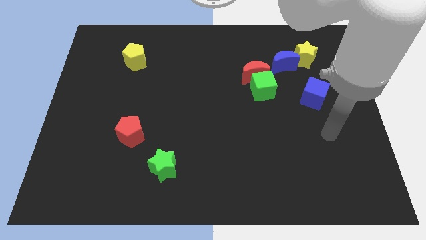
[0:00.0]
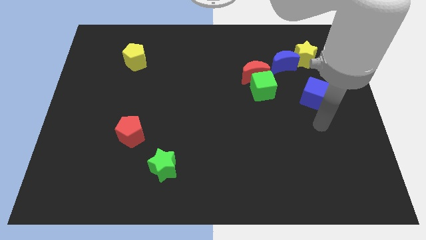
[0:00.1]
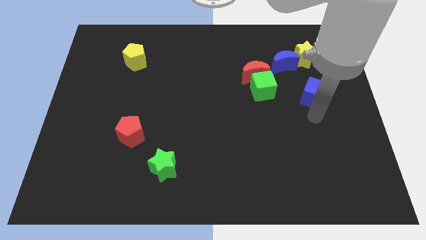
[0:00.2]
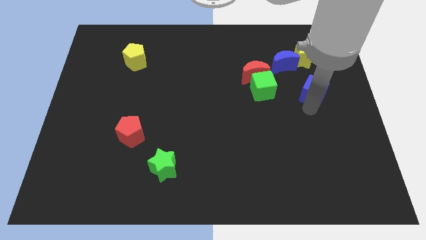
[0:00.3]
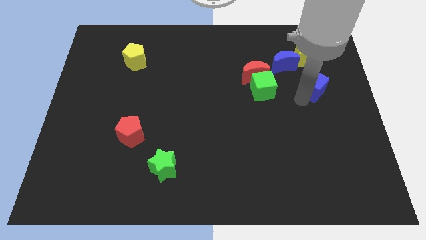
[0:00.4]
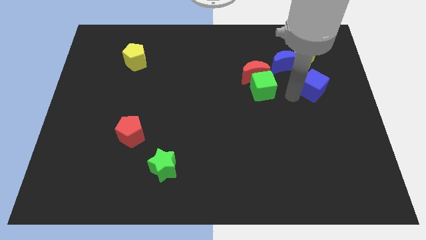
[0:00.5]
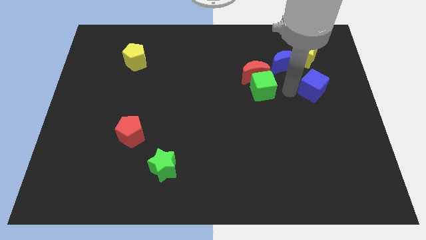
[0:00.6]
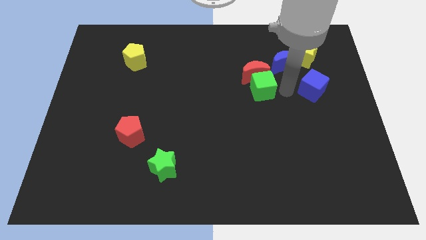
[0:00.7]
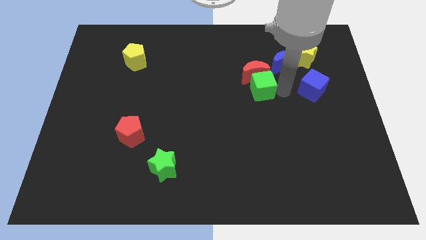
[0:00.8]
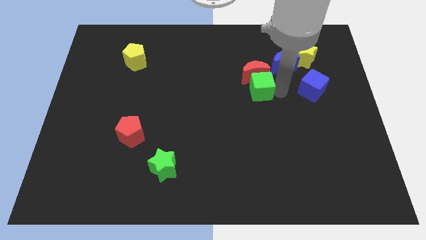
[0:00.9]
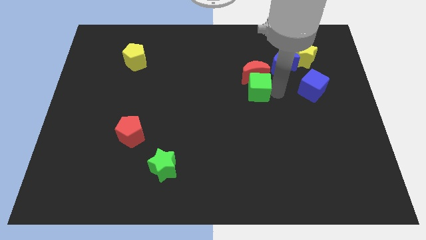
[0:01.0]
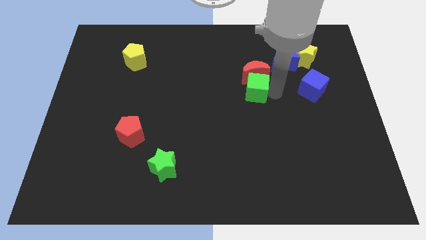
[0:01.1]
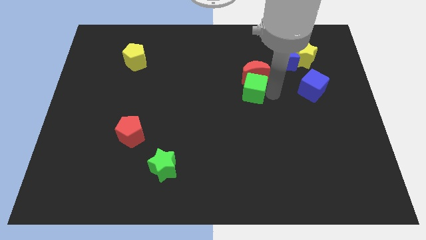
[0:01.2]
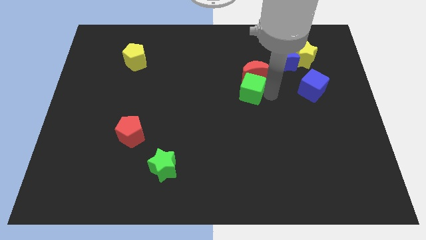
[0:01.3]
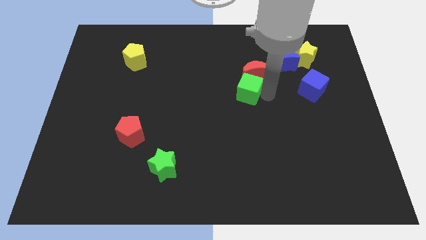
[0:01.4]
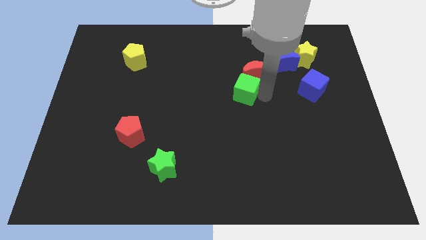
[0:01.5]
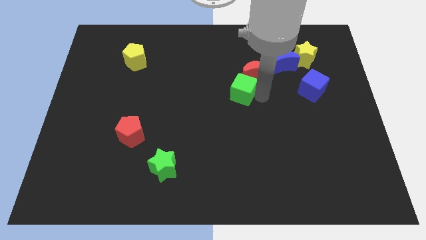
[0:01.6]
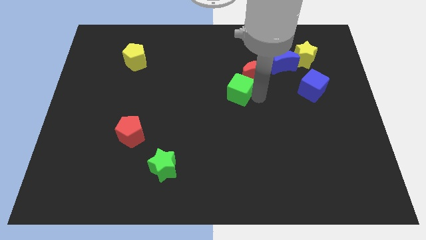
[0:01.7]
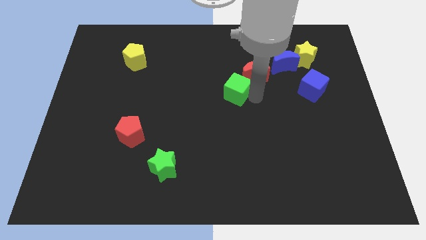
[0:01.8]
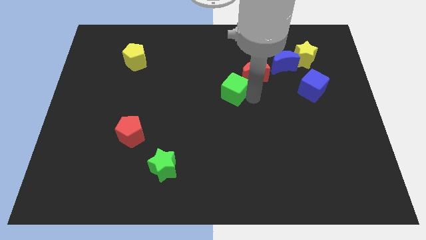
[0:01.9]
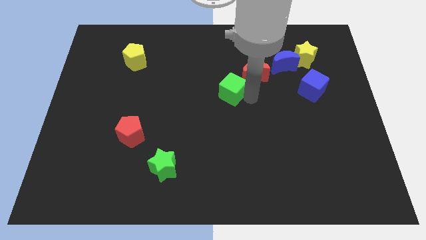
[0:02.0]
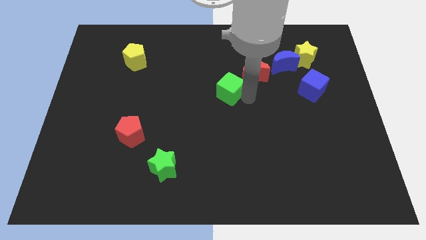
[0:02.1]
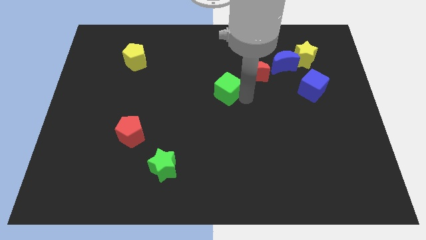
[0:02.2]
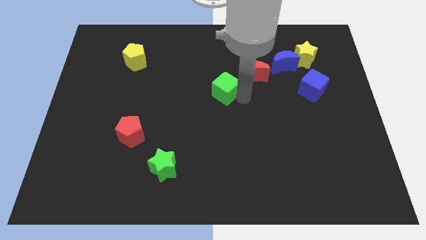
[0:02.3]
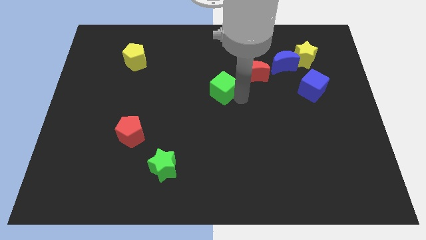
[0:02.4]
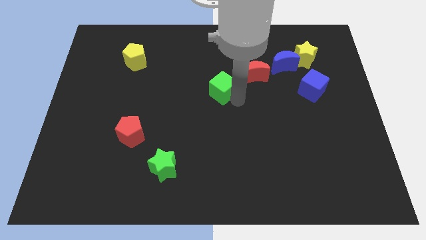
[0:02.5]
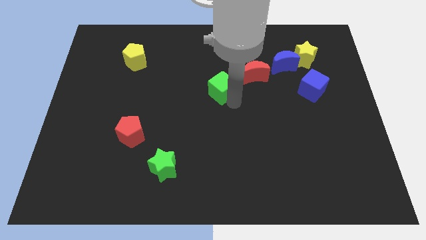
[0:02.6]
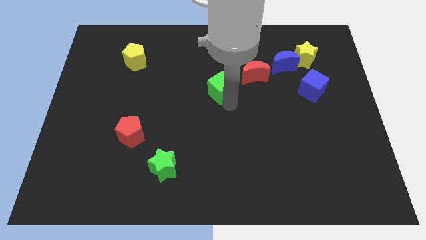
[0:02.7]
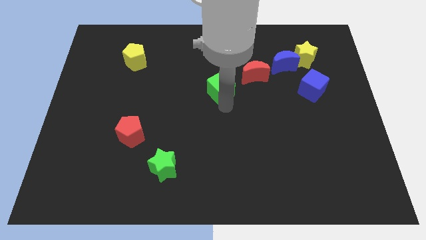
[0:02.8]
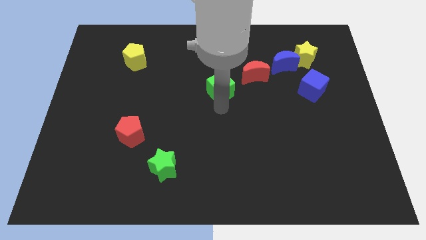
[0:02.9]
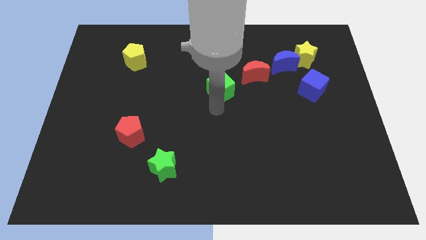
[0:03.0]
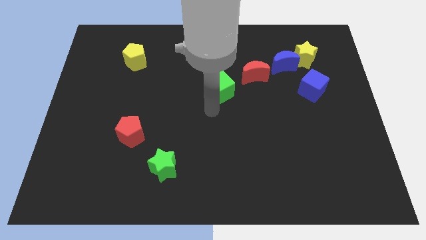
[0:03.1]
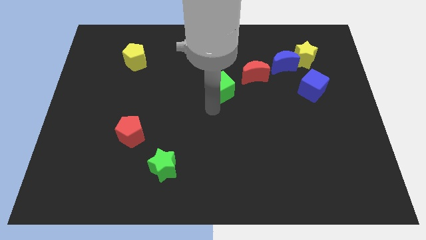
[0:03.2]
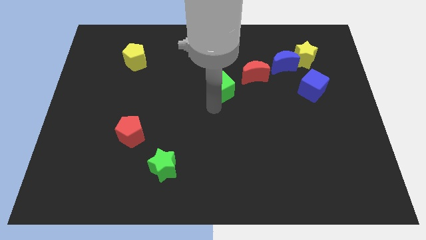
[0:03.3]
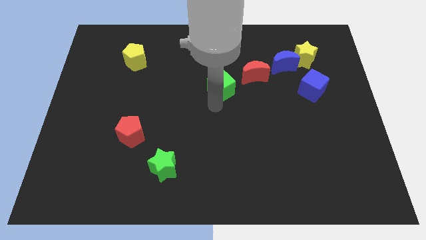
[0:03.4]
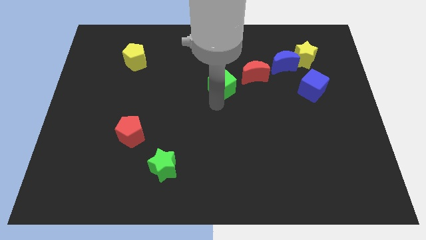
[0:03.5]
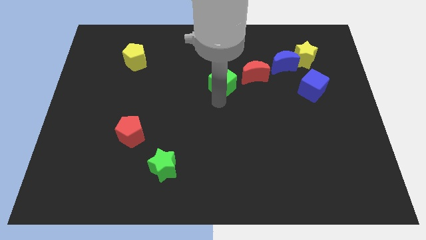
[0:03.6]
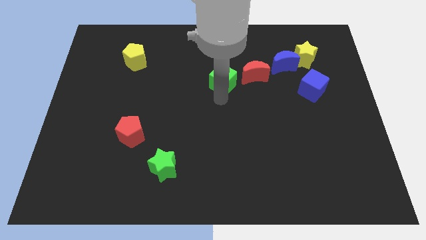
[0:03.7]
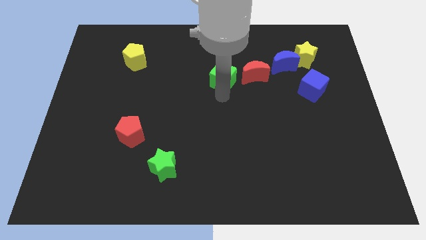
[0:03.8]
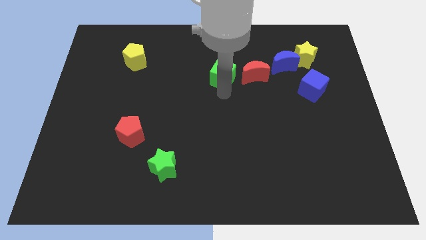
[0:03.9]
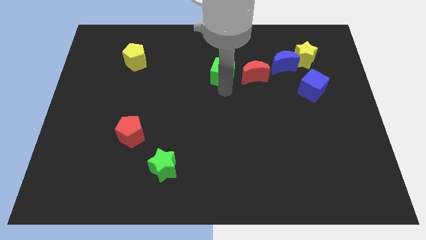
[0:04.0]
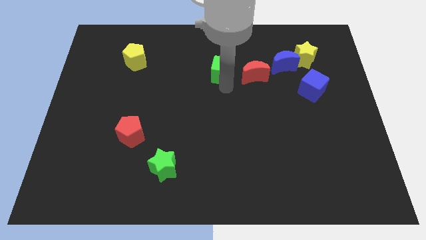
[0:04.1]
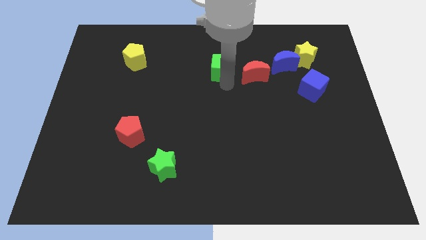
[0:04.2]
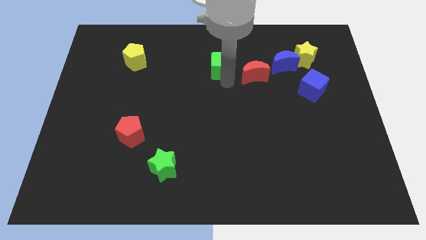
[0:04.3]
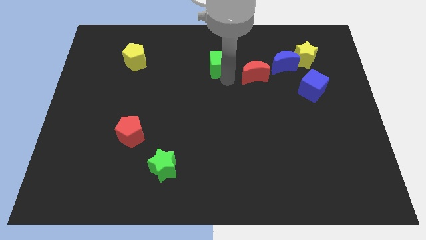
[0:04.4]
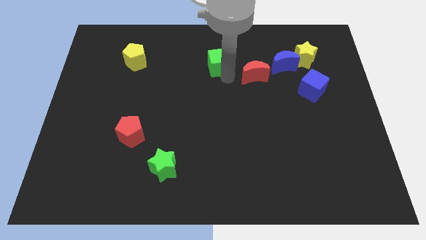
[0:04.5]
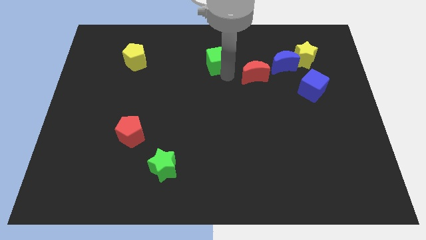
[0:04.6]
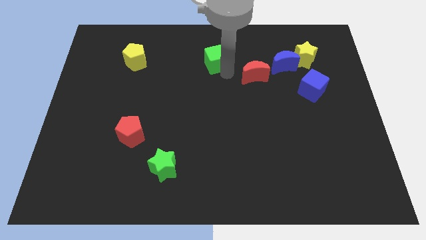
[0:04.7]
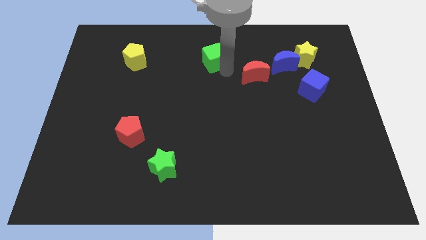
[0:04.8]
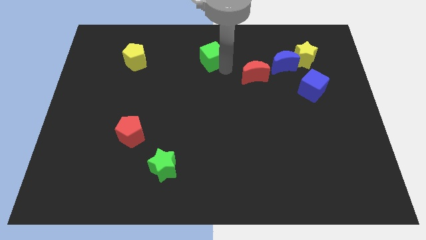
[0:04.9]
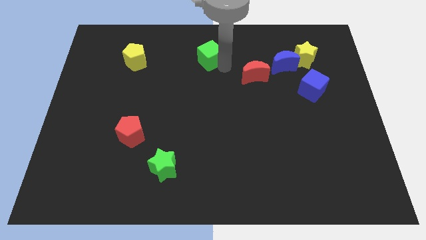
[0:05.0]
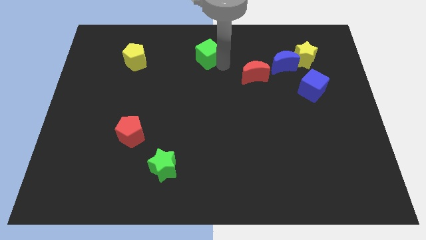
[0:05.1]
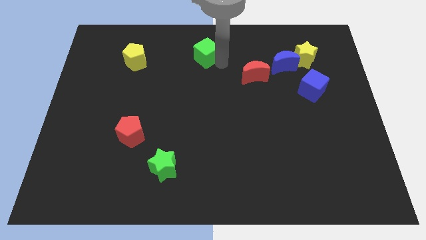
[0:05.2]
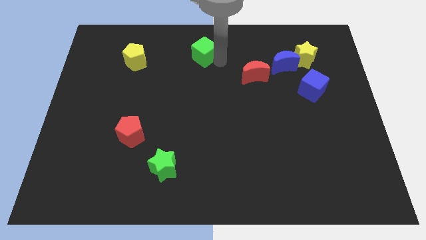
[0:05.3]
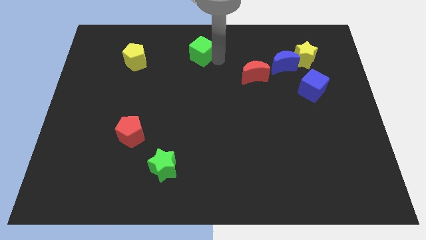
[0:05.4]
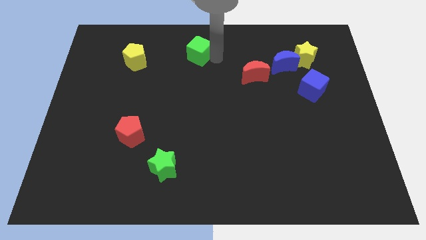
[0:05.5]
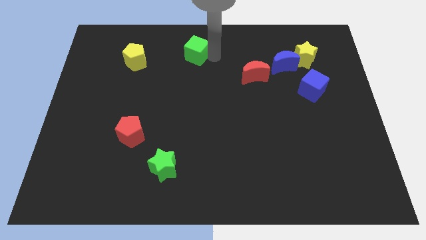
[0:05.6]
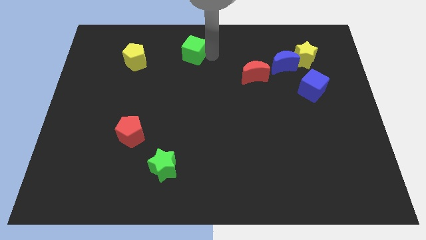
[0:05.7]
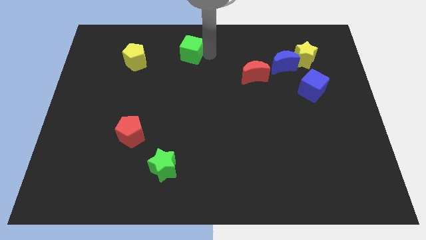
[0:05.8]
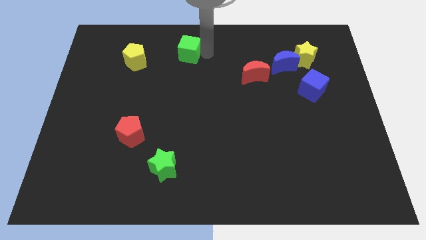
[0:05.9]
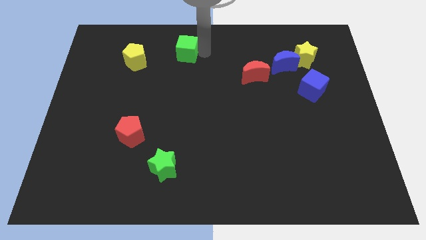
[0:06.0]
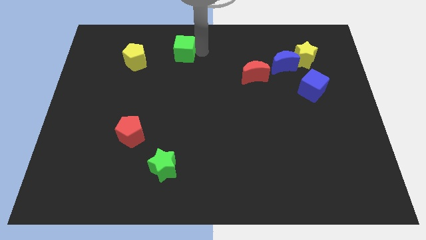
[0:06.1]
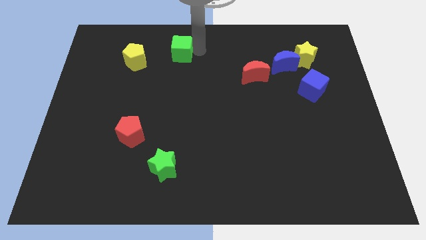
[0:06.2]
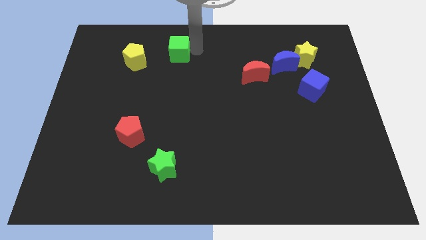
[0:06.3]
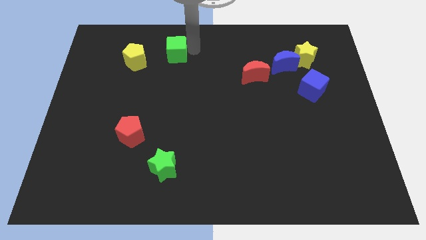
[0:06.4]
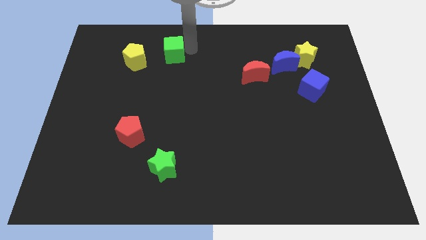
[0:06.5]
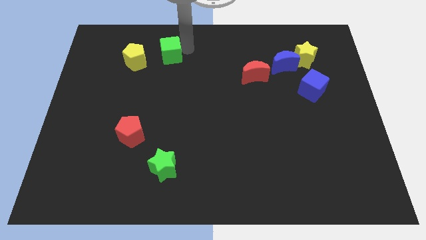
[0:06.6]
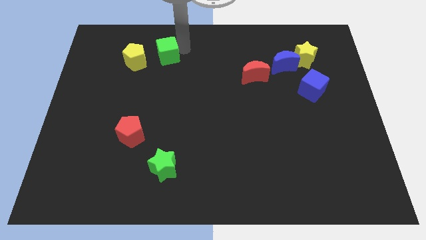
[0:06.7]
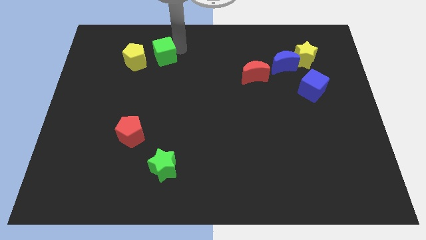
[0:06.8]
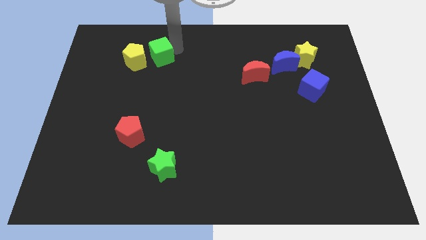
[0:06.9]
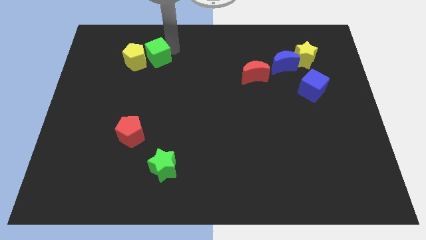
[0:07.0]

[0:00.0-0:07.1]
slide the green cube to the yellow pentagon
